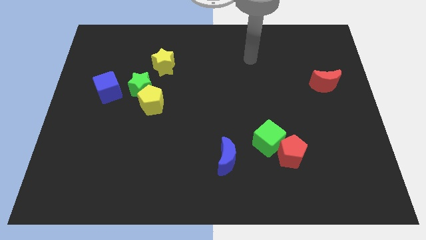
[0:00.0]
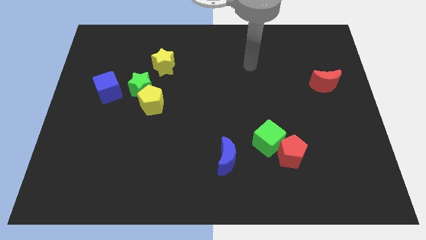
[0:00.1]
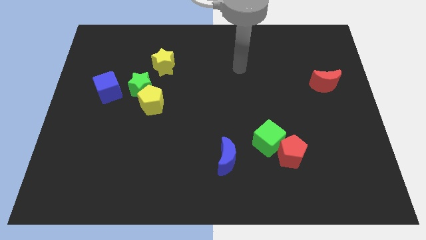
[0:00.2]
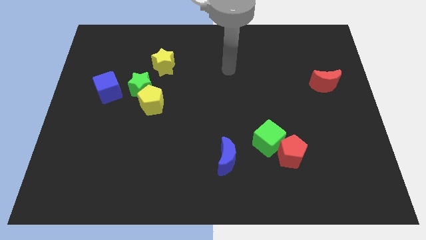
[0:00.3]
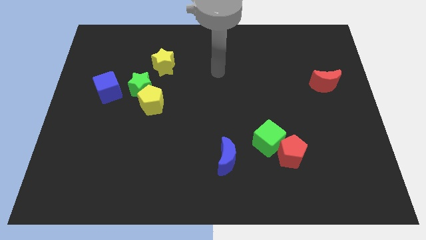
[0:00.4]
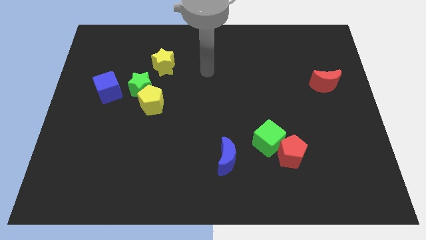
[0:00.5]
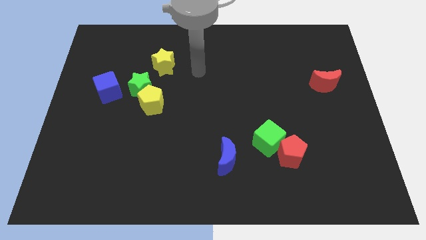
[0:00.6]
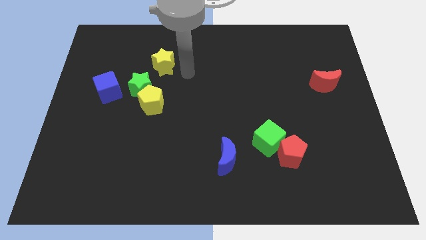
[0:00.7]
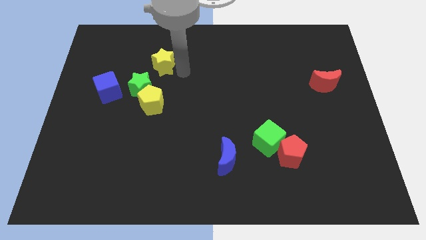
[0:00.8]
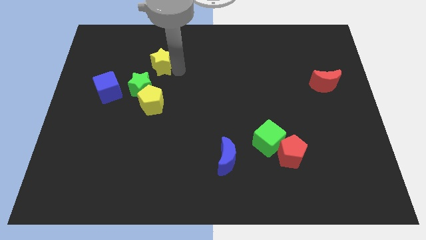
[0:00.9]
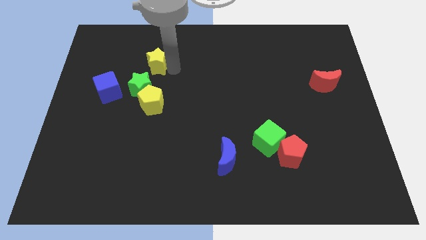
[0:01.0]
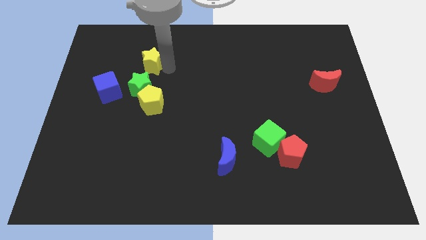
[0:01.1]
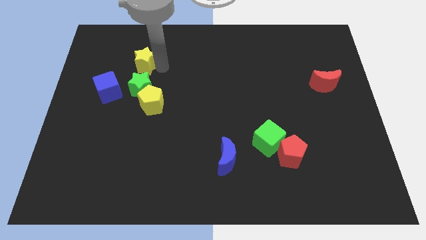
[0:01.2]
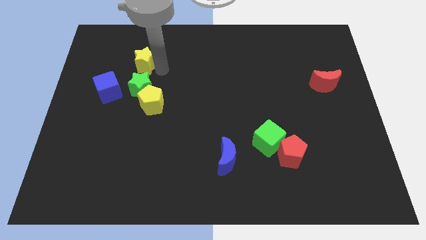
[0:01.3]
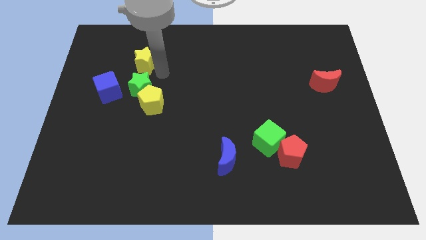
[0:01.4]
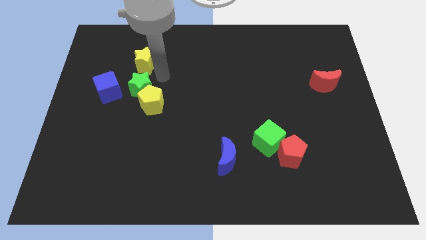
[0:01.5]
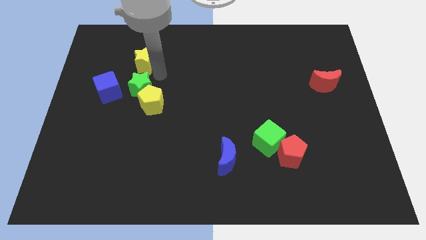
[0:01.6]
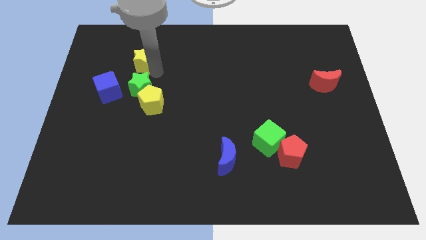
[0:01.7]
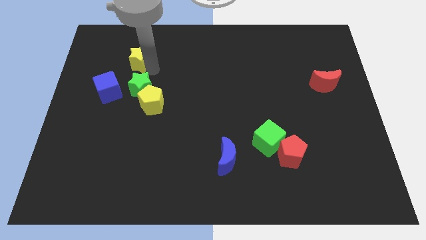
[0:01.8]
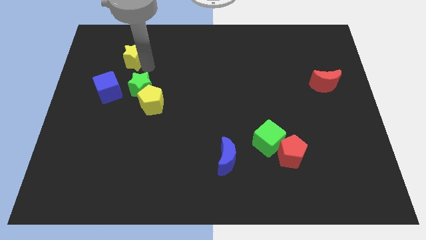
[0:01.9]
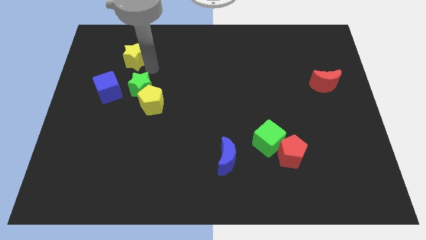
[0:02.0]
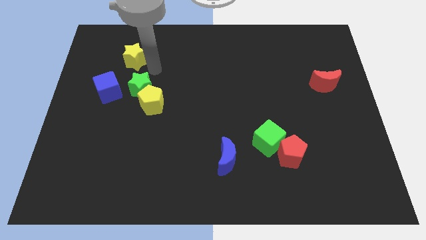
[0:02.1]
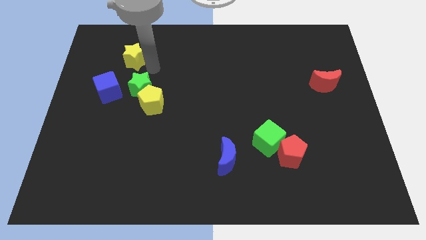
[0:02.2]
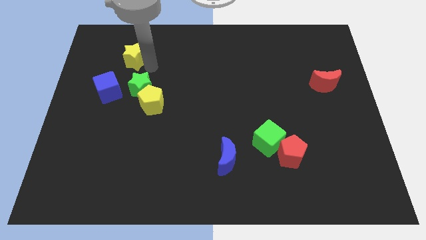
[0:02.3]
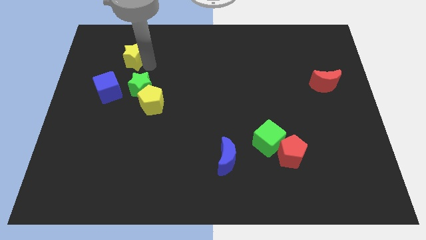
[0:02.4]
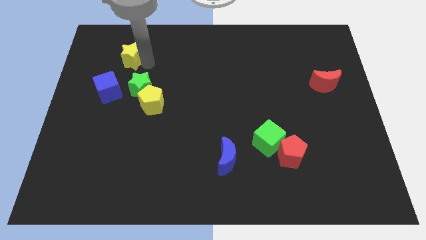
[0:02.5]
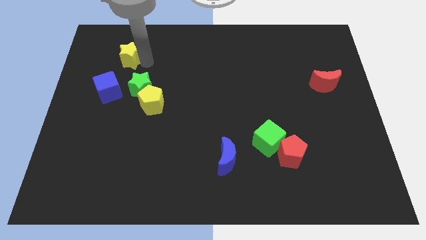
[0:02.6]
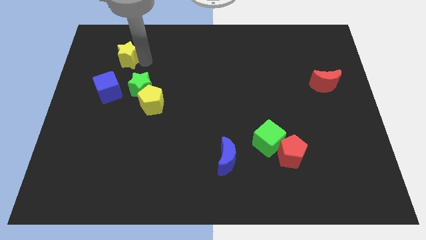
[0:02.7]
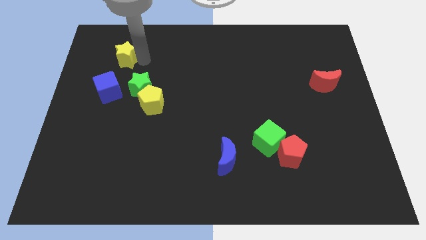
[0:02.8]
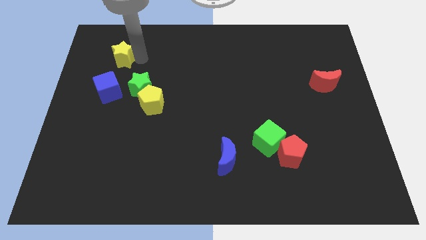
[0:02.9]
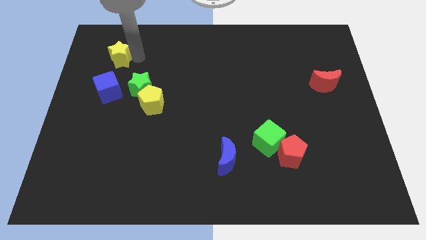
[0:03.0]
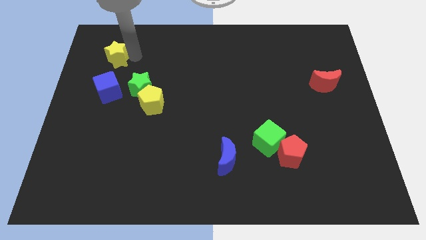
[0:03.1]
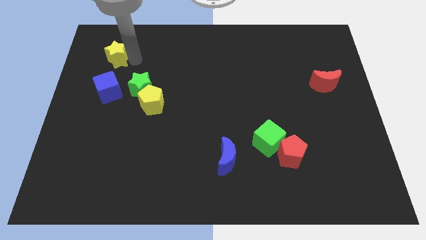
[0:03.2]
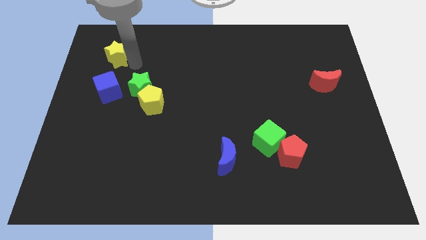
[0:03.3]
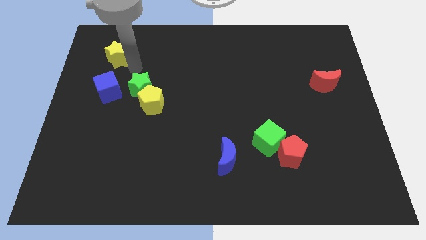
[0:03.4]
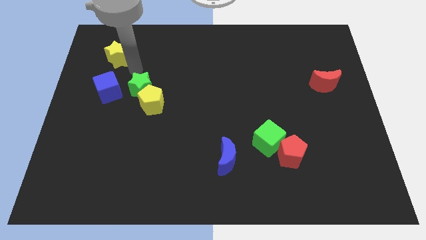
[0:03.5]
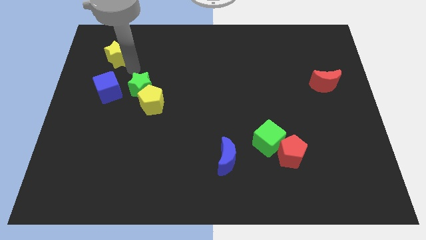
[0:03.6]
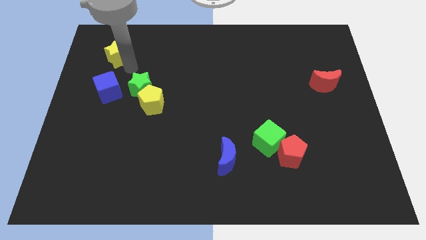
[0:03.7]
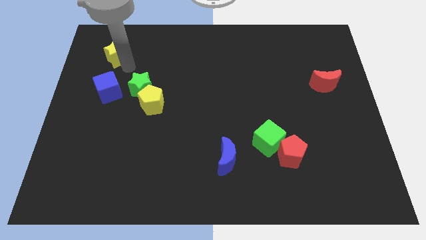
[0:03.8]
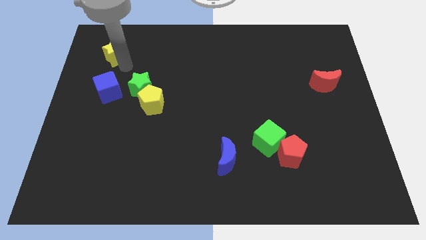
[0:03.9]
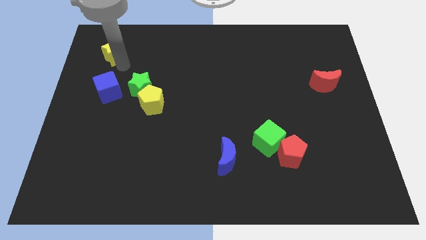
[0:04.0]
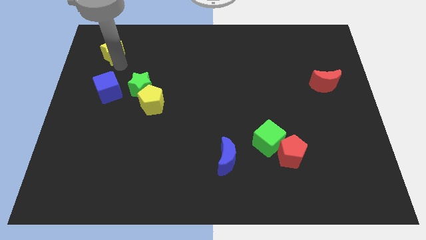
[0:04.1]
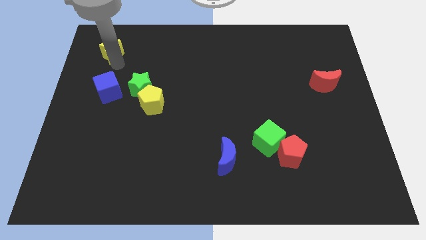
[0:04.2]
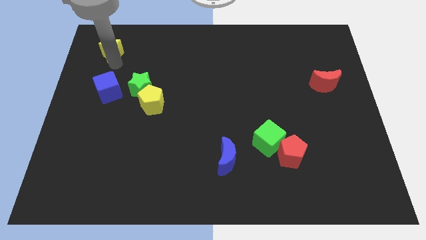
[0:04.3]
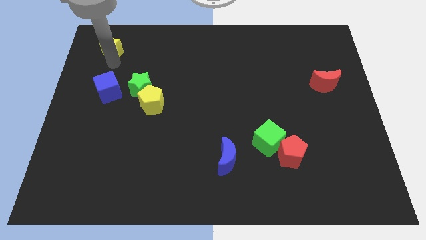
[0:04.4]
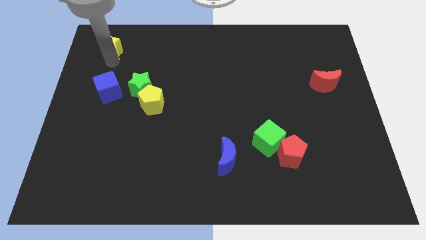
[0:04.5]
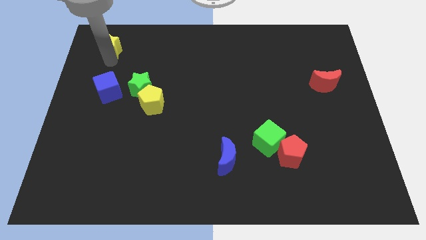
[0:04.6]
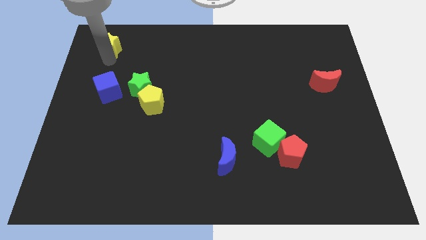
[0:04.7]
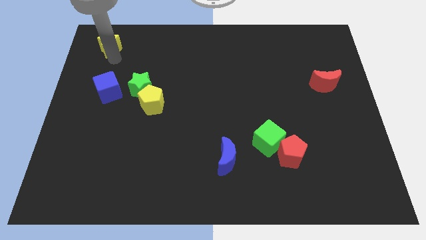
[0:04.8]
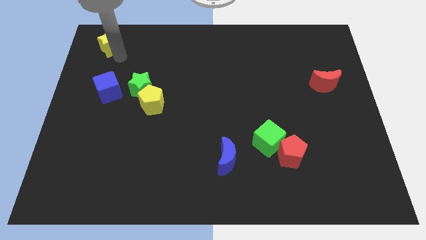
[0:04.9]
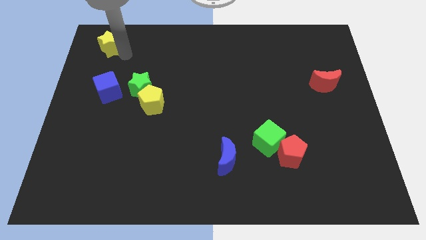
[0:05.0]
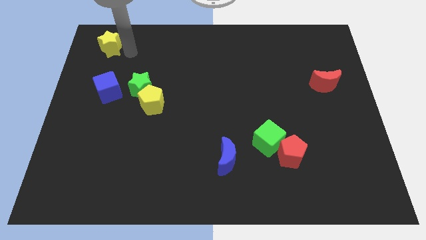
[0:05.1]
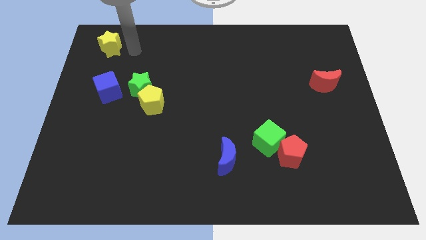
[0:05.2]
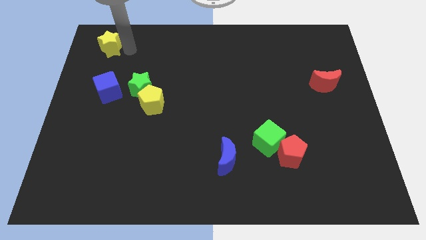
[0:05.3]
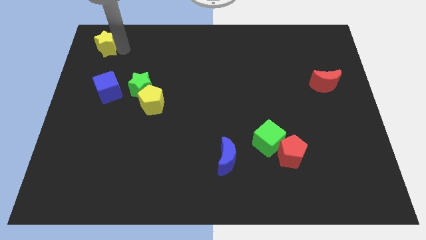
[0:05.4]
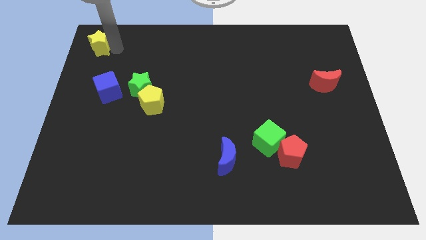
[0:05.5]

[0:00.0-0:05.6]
move the yellow star to the upper left corner

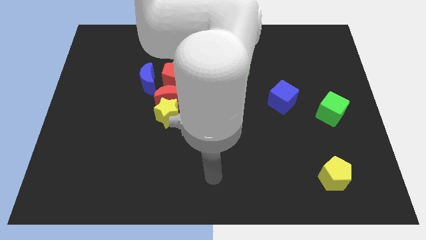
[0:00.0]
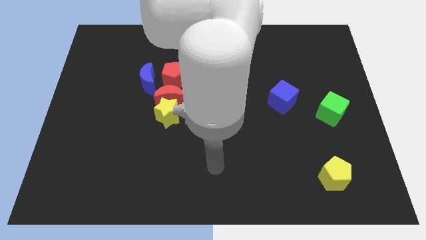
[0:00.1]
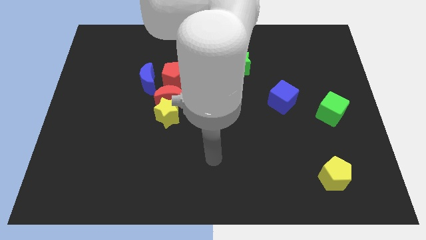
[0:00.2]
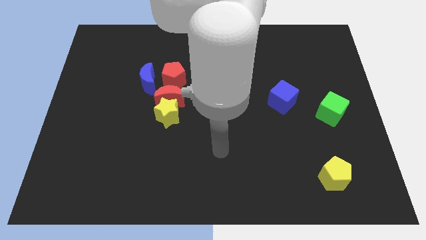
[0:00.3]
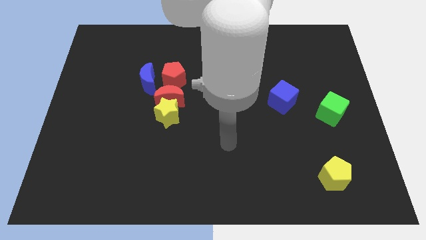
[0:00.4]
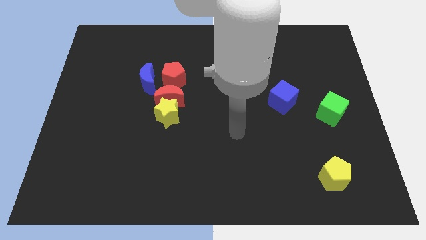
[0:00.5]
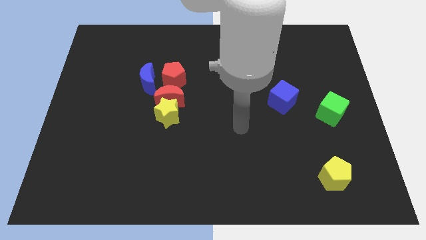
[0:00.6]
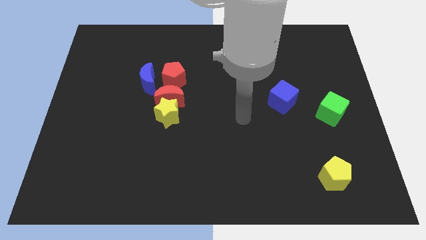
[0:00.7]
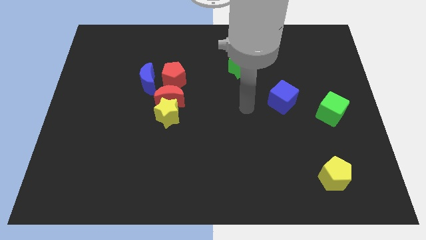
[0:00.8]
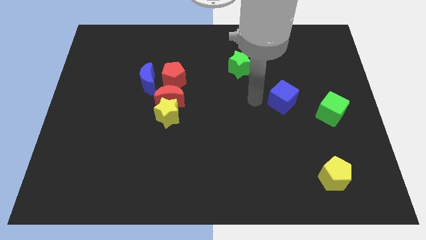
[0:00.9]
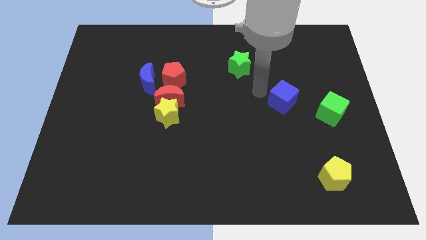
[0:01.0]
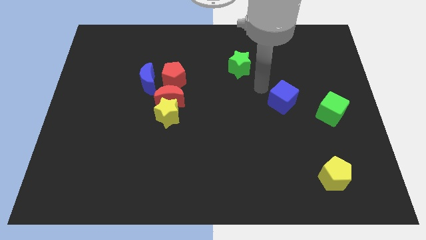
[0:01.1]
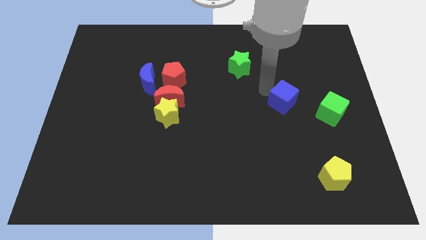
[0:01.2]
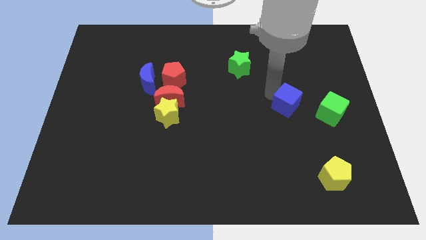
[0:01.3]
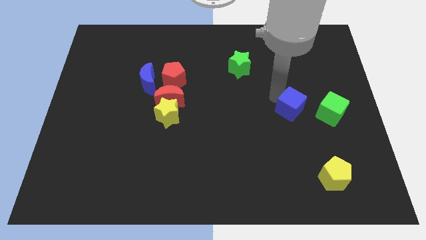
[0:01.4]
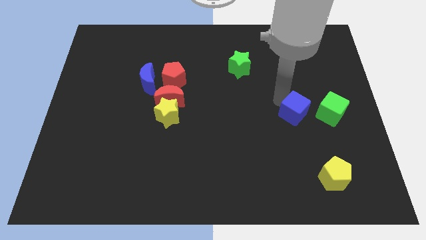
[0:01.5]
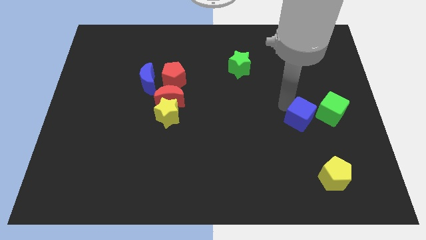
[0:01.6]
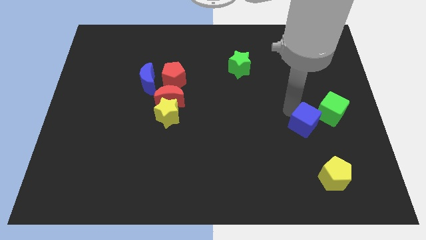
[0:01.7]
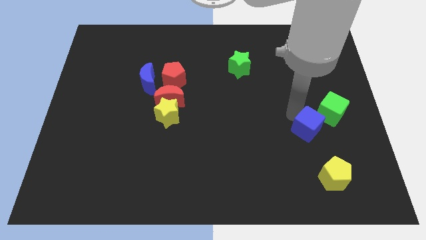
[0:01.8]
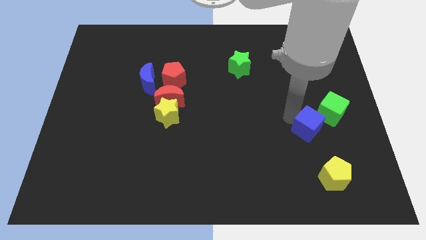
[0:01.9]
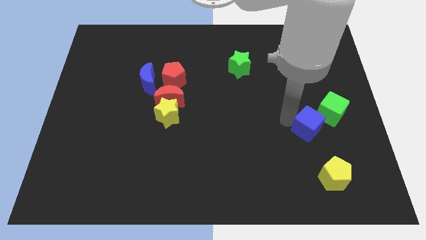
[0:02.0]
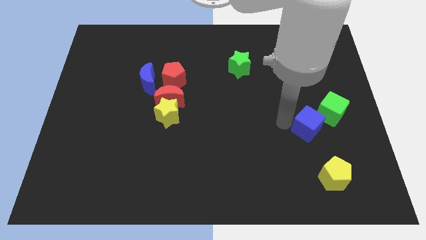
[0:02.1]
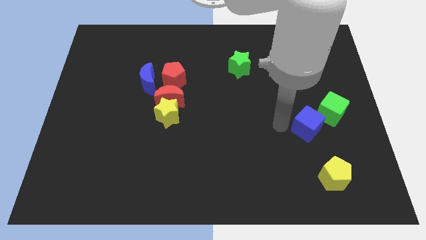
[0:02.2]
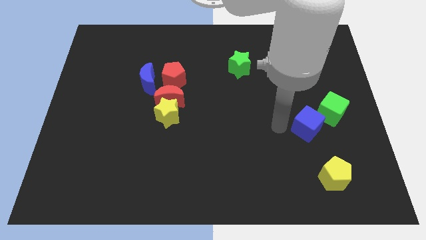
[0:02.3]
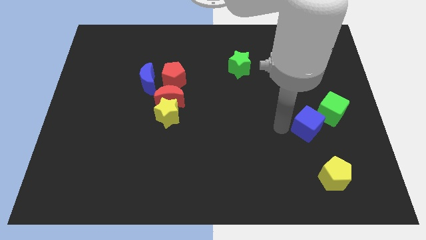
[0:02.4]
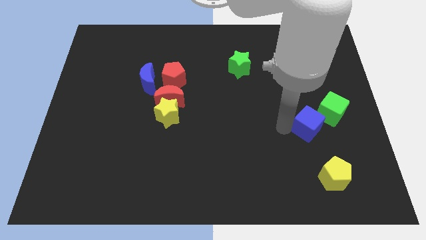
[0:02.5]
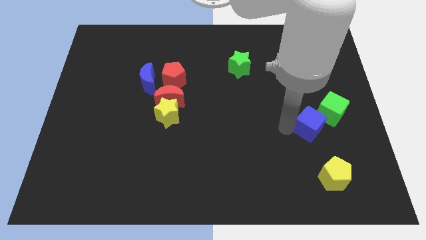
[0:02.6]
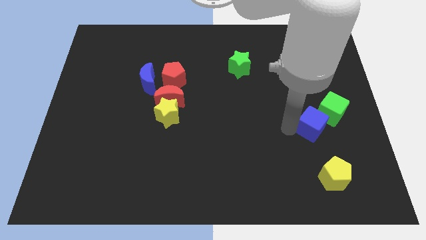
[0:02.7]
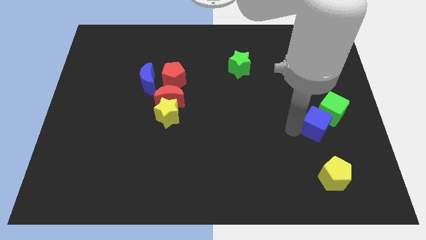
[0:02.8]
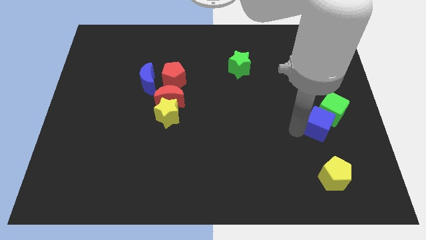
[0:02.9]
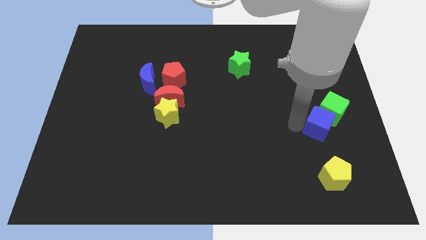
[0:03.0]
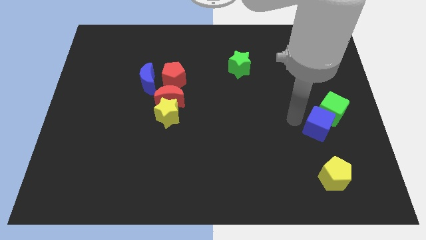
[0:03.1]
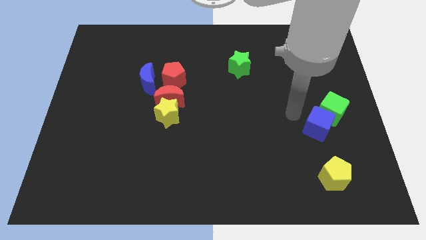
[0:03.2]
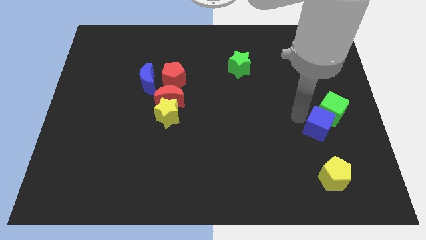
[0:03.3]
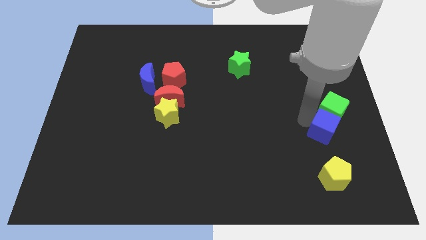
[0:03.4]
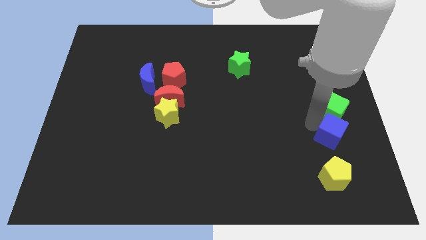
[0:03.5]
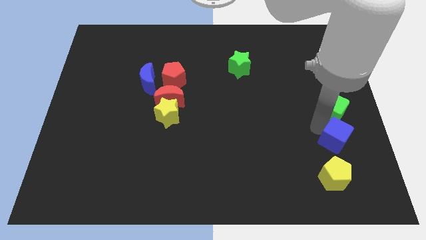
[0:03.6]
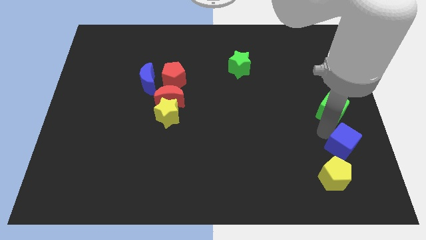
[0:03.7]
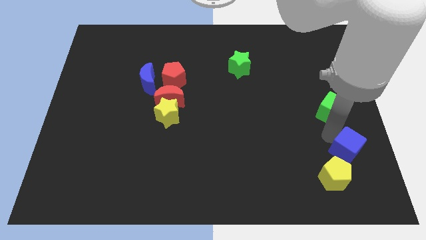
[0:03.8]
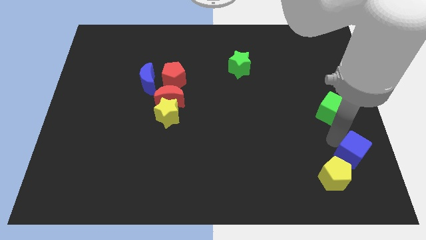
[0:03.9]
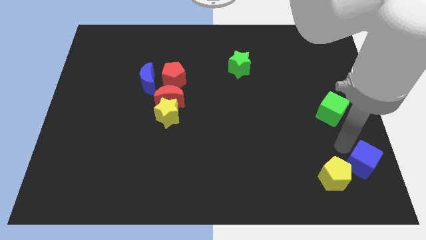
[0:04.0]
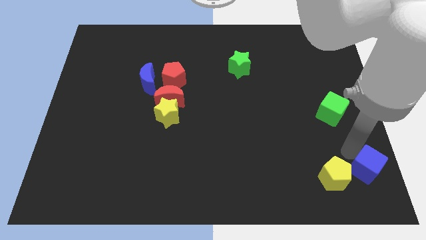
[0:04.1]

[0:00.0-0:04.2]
push the blue cube to the bottom right of the board
